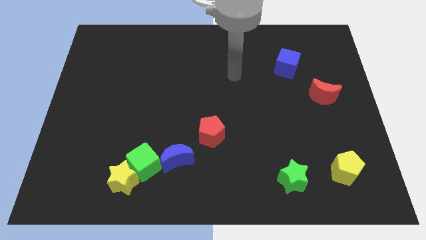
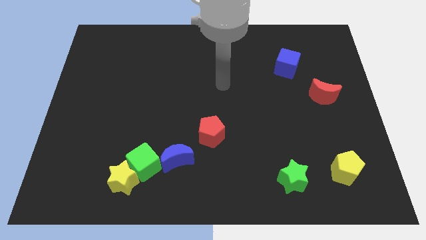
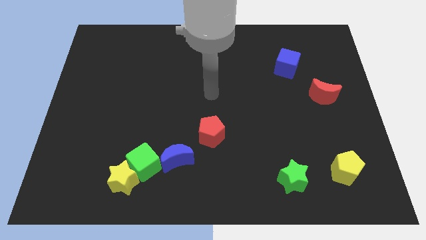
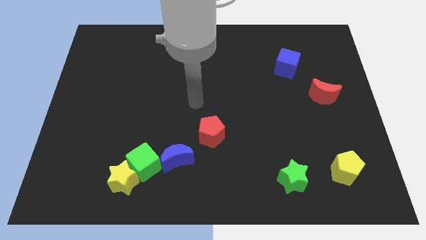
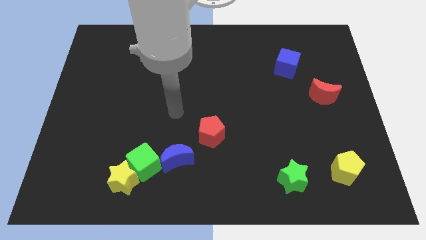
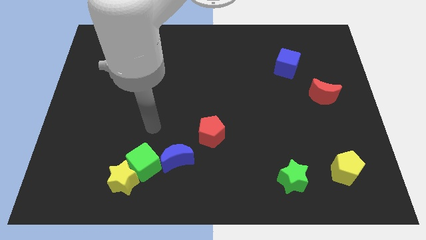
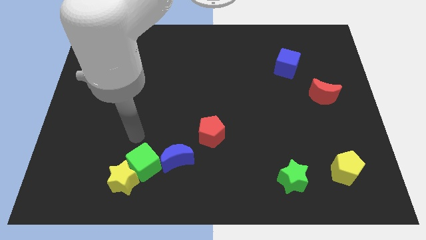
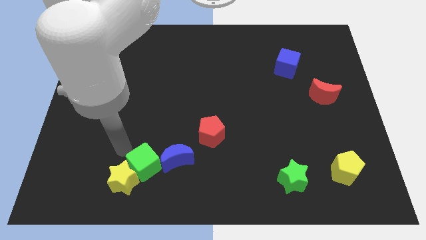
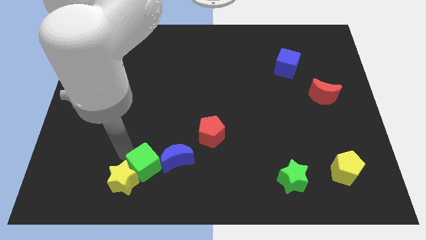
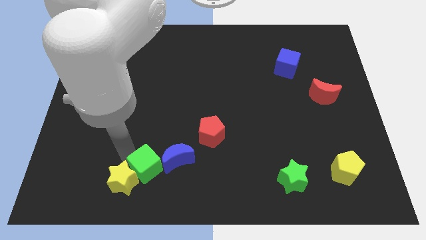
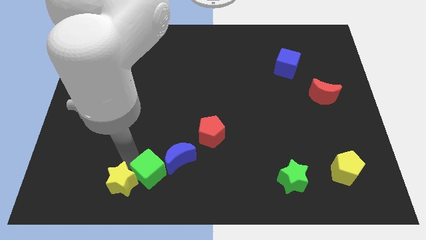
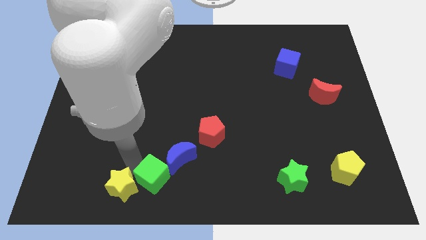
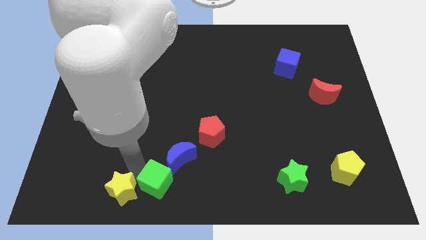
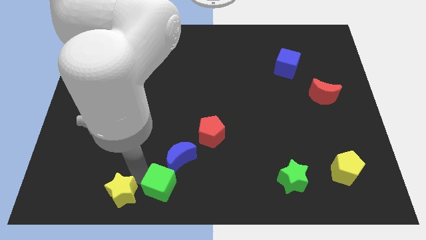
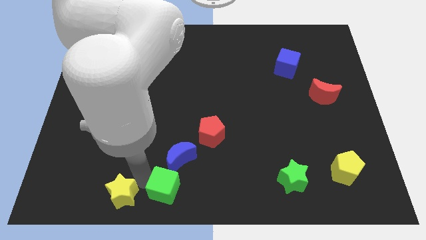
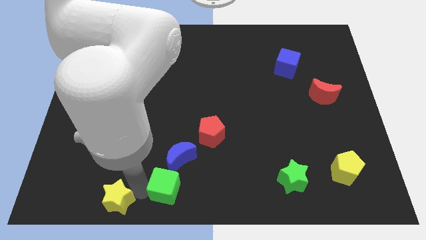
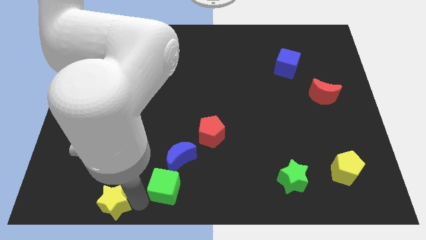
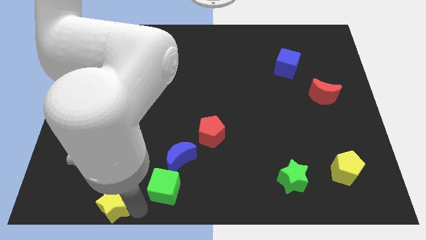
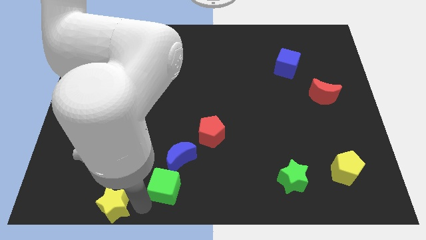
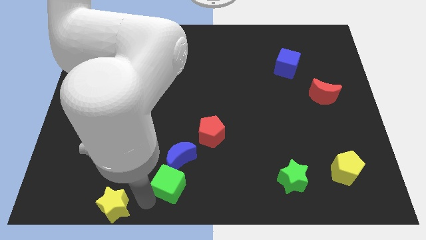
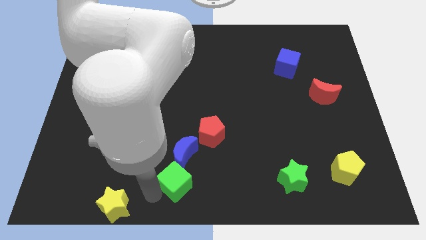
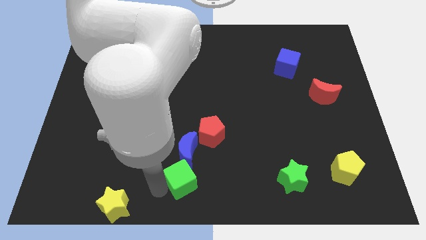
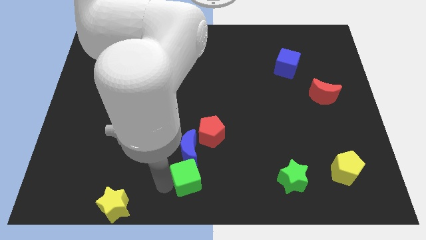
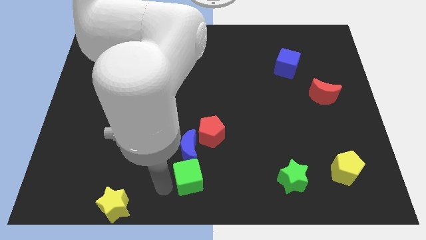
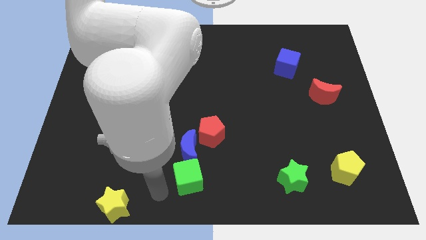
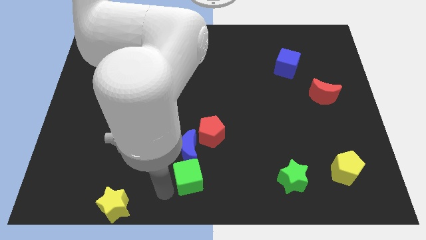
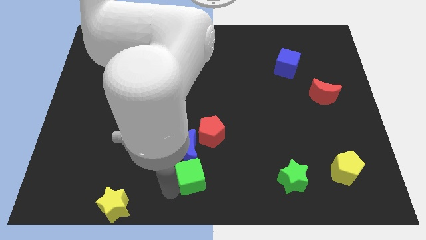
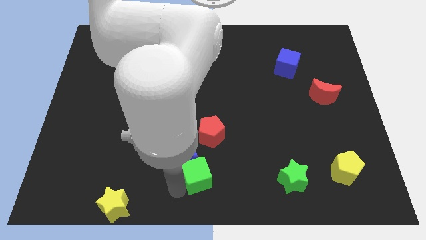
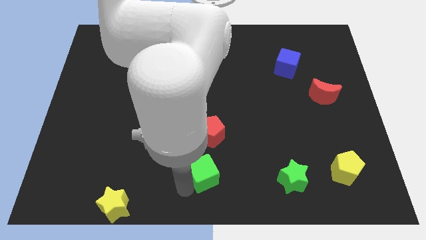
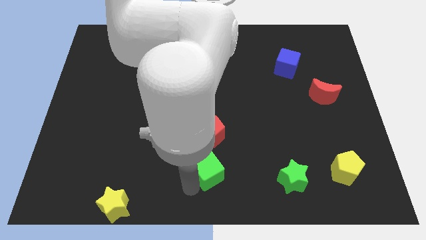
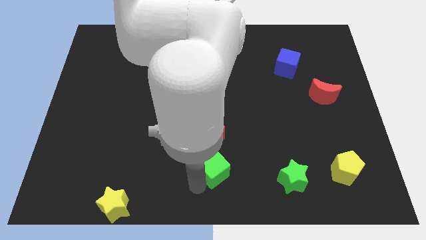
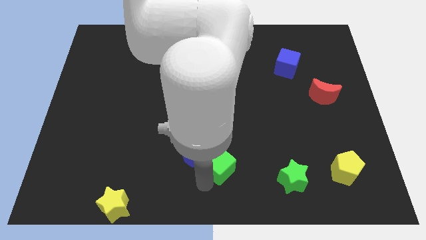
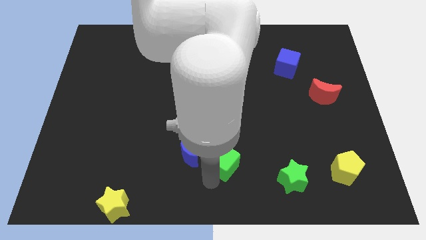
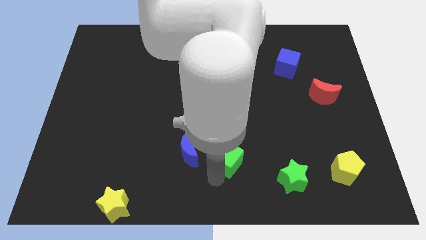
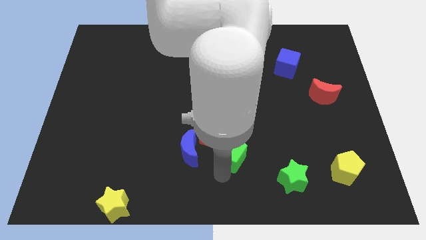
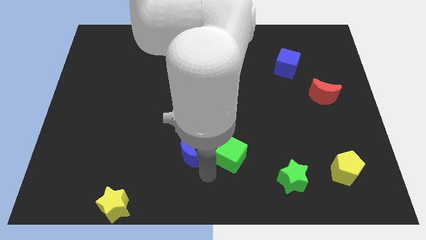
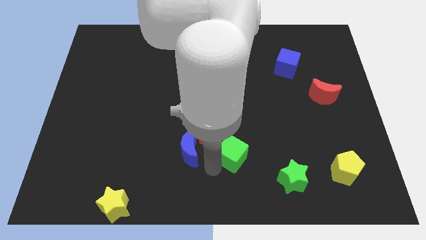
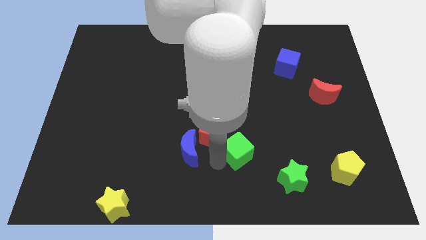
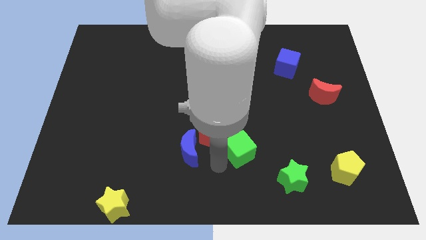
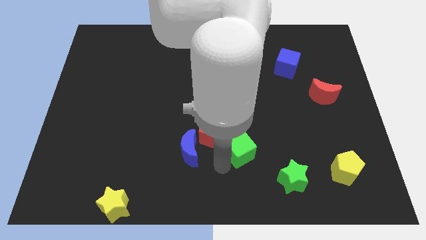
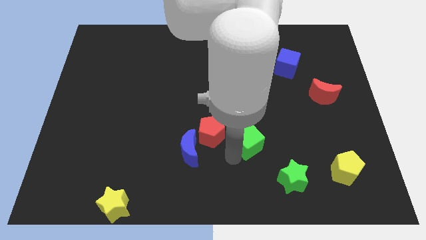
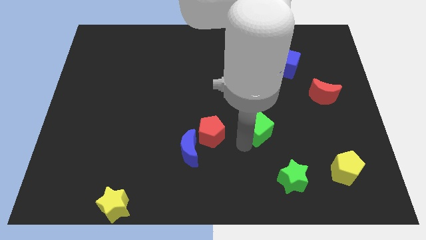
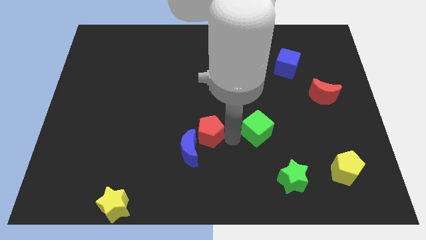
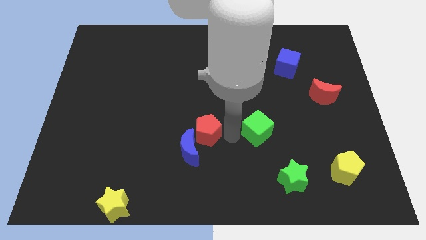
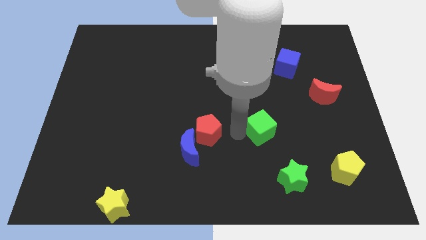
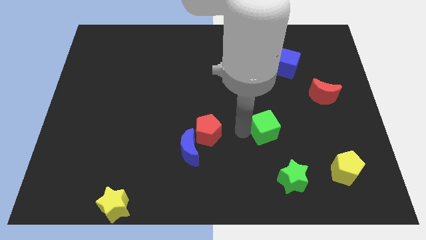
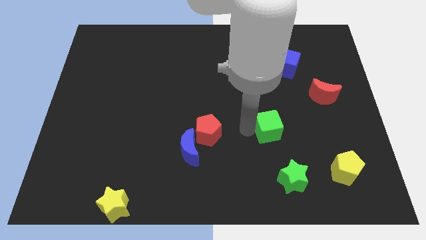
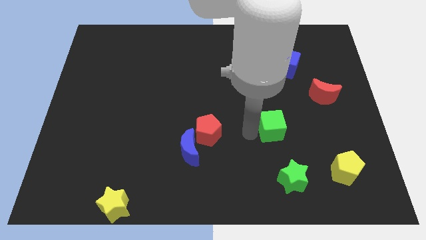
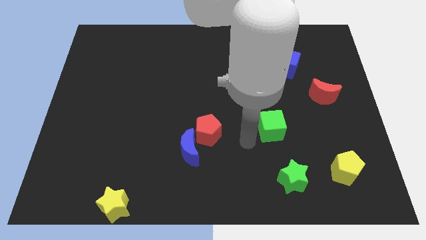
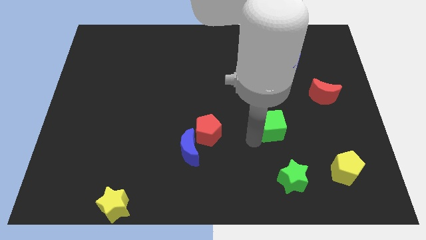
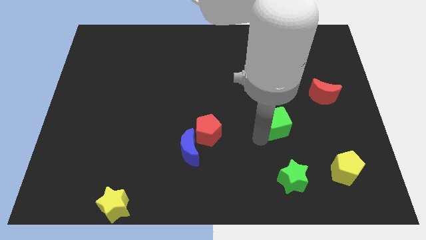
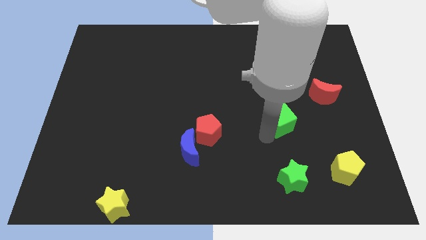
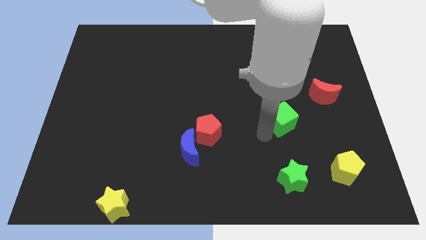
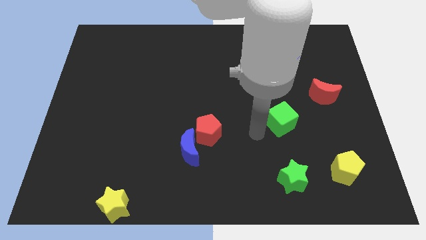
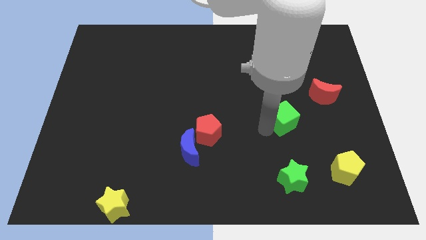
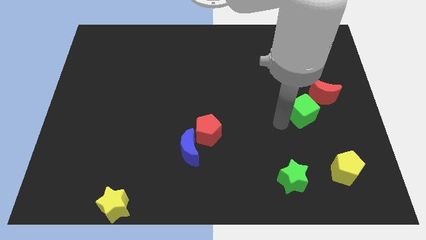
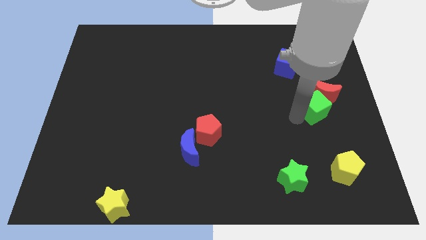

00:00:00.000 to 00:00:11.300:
push the green cube close to the red moon

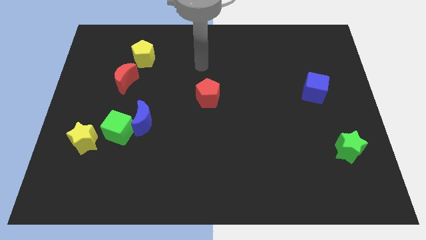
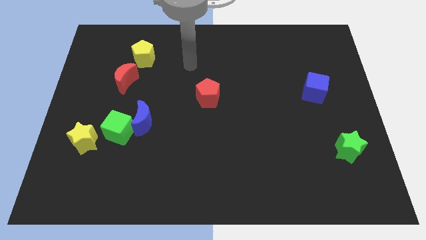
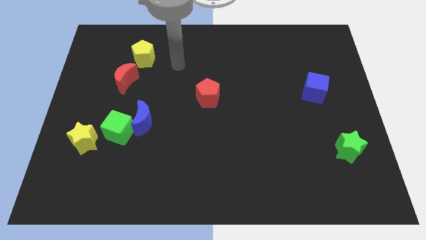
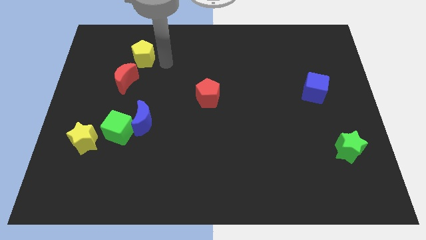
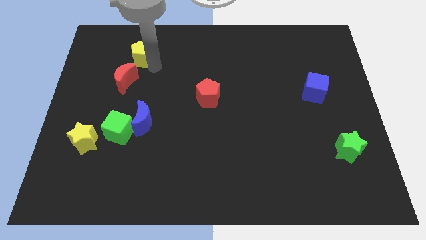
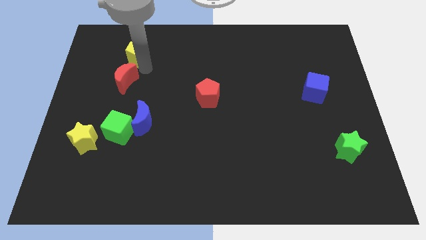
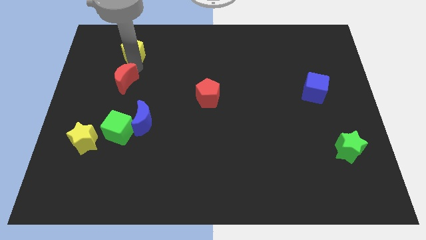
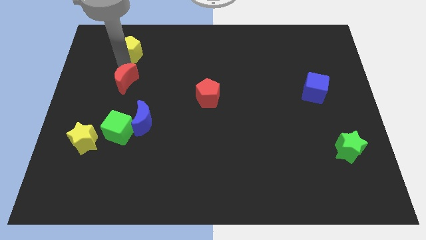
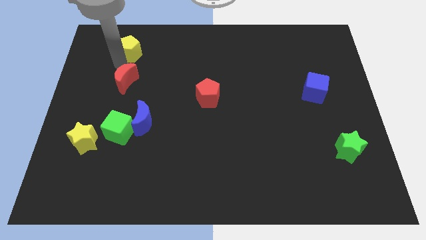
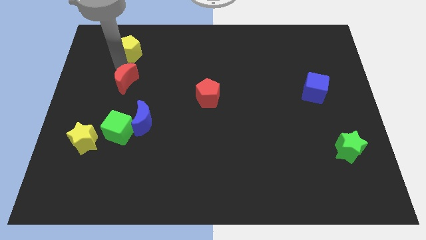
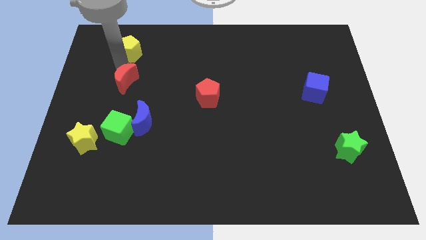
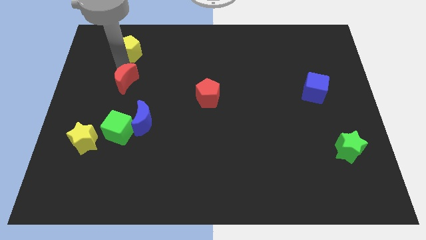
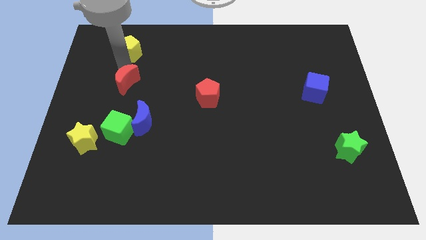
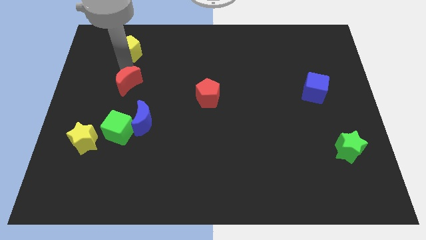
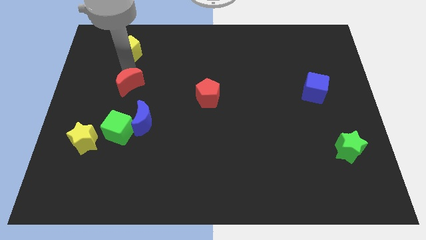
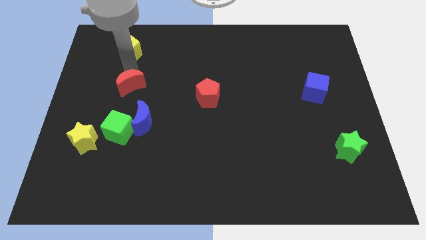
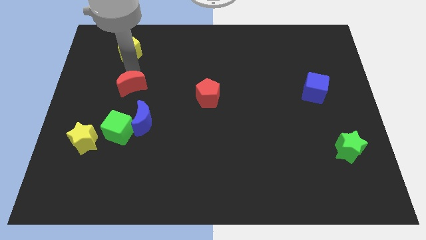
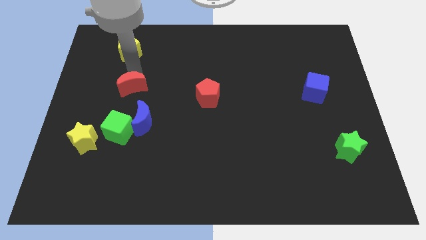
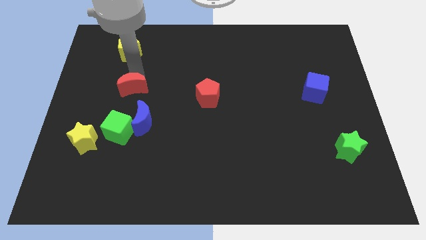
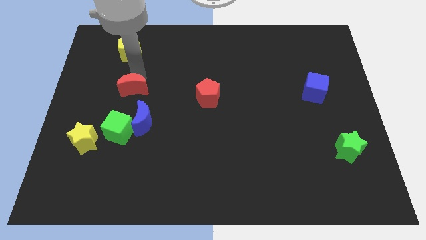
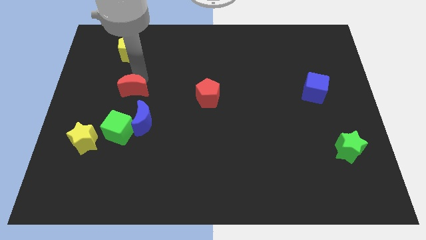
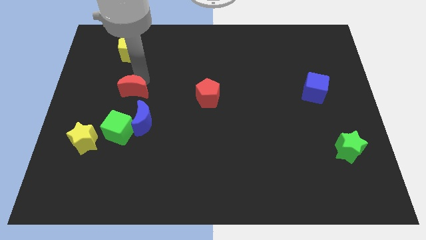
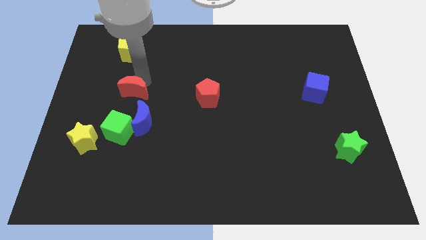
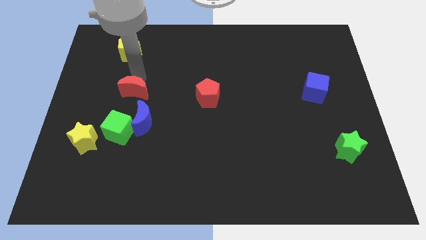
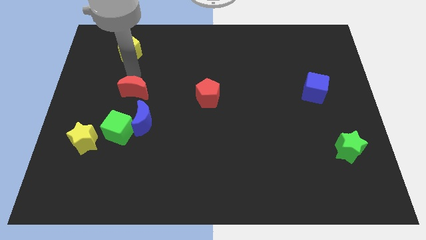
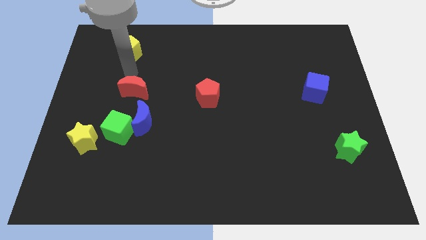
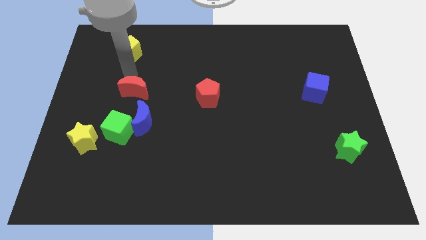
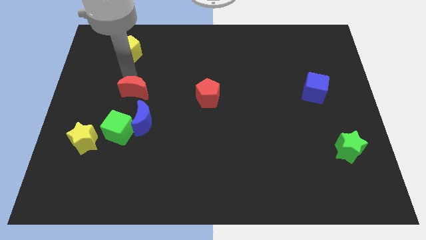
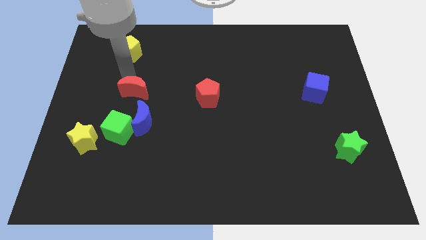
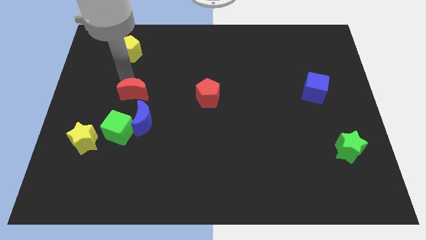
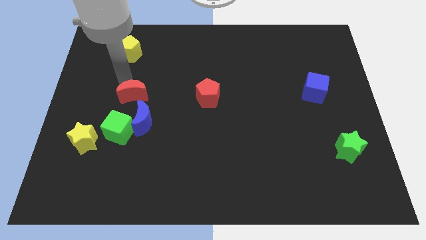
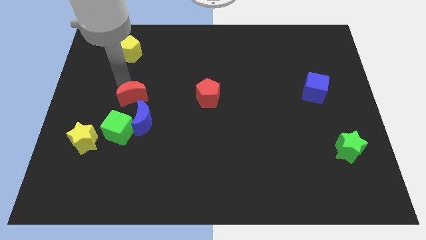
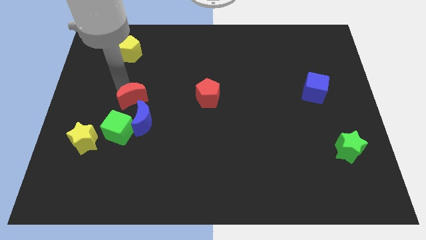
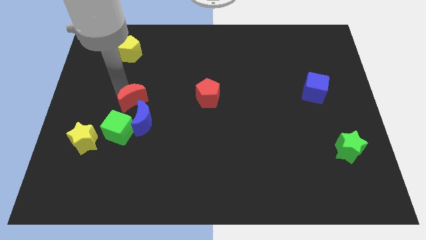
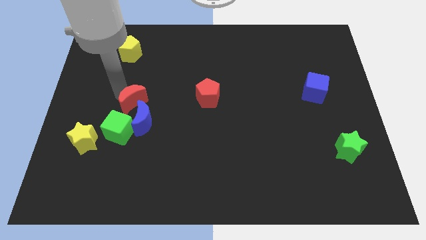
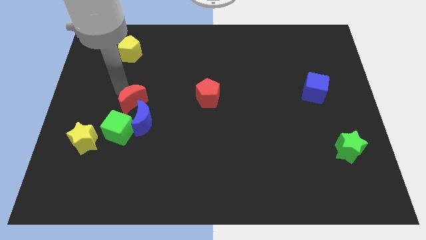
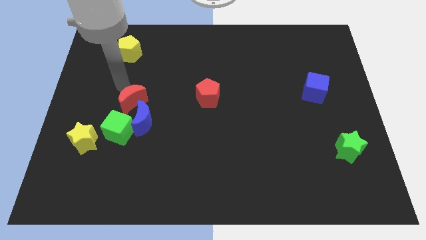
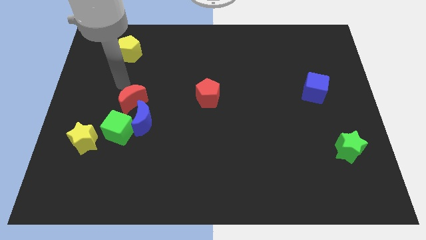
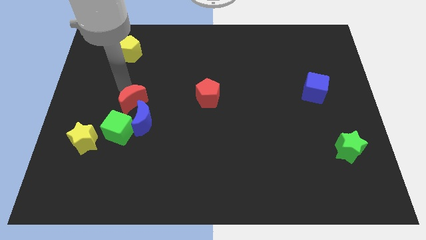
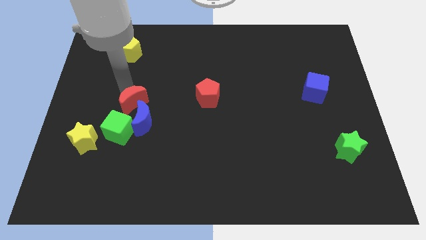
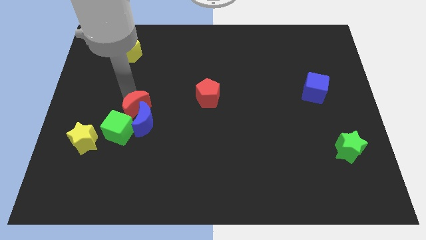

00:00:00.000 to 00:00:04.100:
move the red moon close to the blue moon
